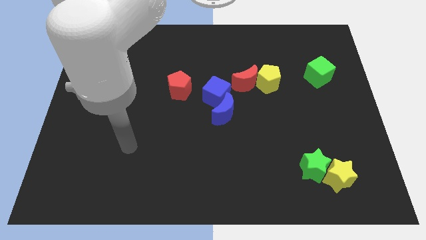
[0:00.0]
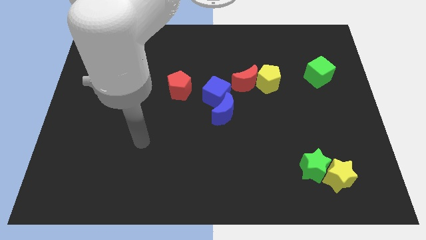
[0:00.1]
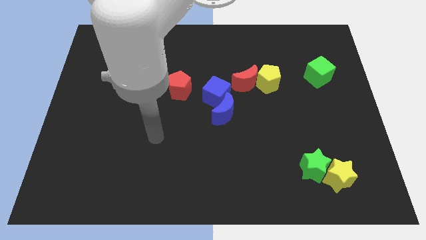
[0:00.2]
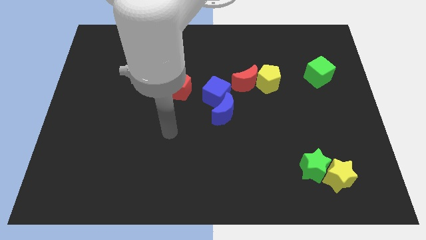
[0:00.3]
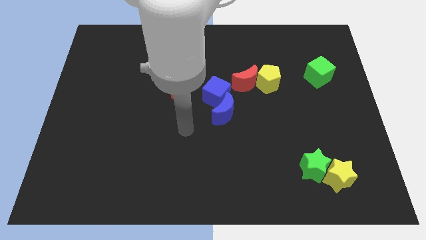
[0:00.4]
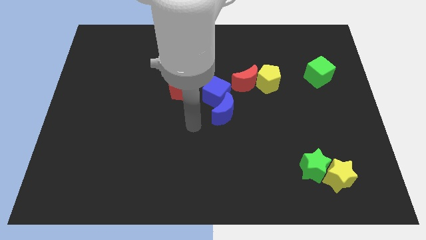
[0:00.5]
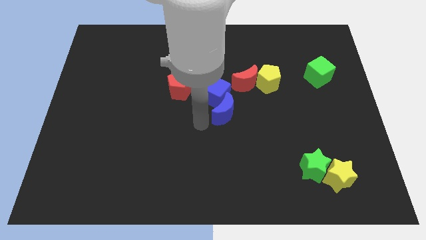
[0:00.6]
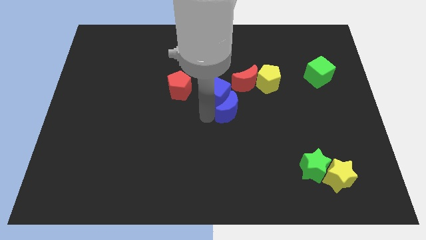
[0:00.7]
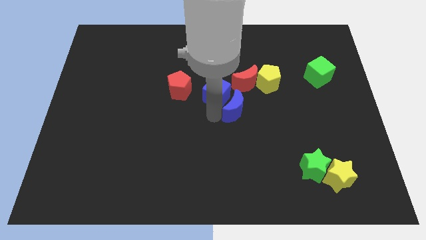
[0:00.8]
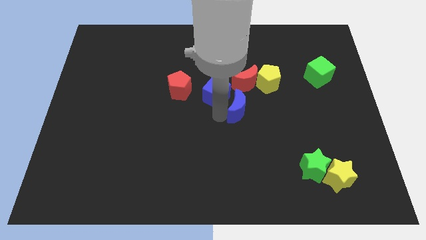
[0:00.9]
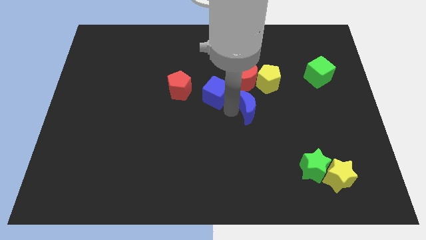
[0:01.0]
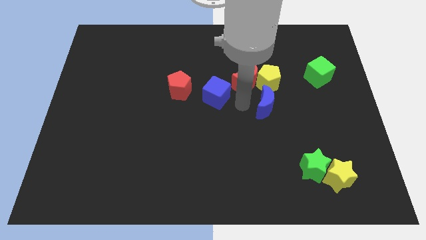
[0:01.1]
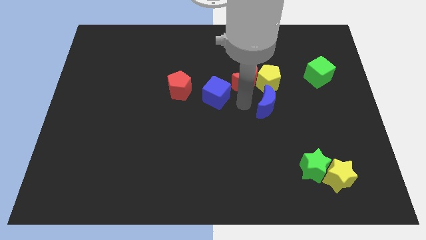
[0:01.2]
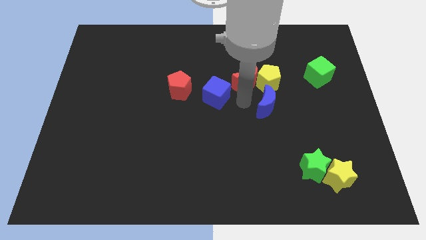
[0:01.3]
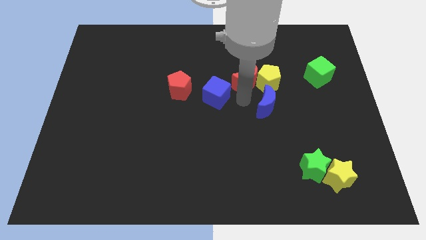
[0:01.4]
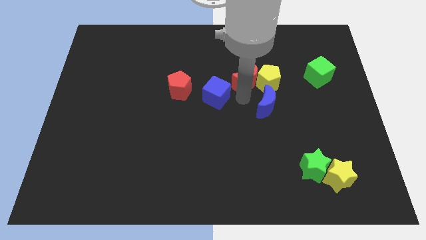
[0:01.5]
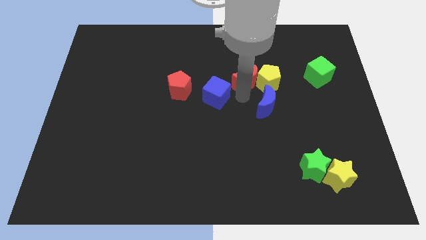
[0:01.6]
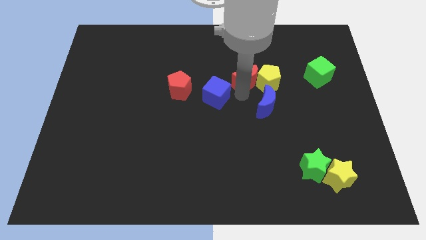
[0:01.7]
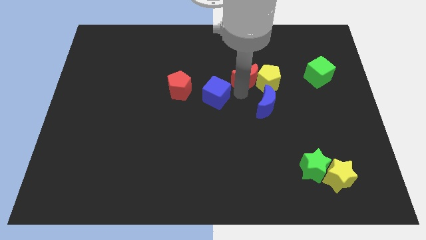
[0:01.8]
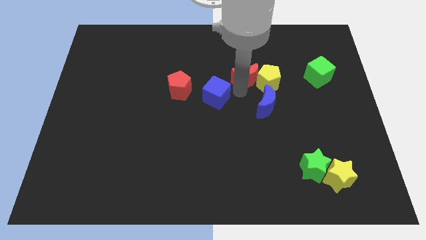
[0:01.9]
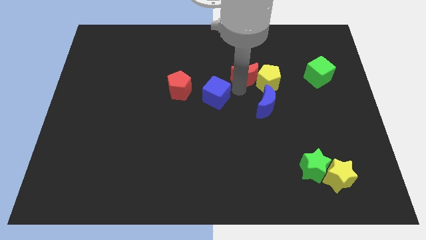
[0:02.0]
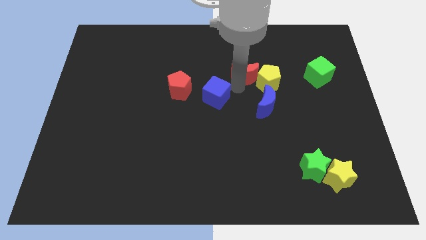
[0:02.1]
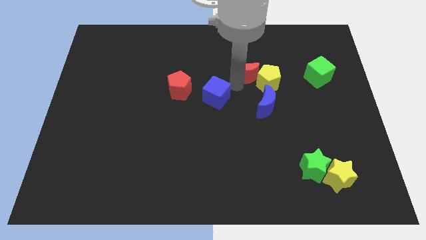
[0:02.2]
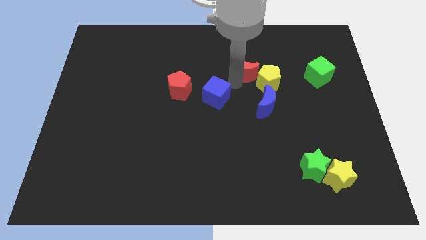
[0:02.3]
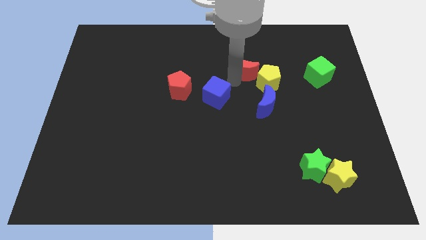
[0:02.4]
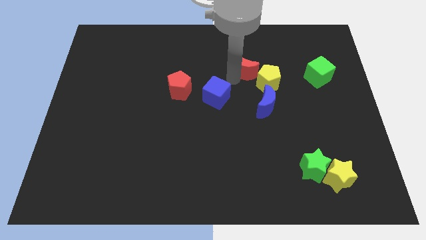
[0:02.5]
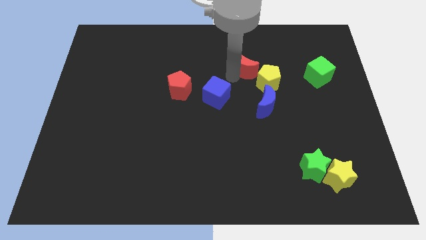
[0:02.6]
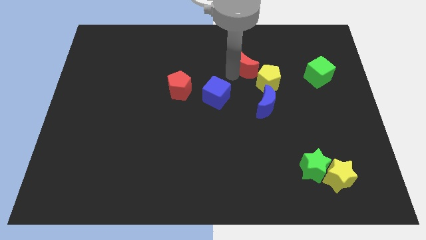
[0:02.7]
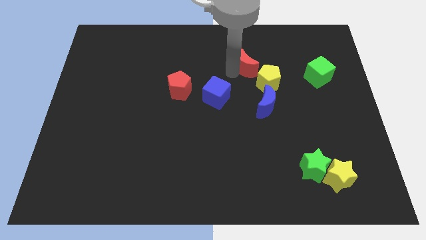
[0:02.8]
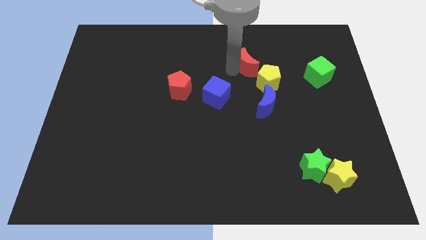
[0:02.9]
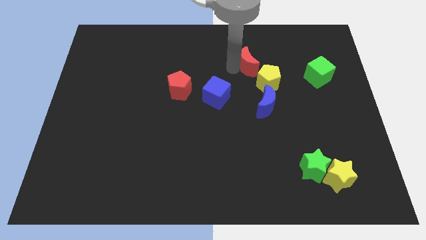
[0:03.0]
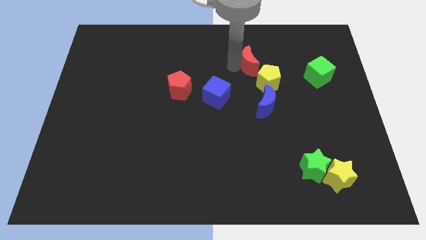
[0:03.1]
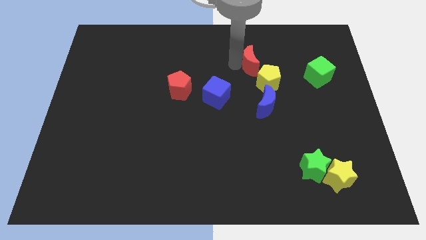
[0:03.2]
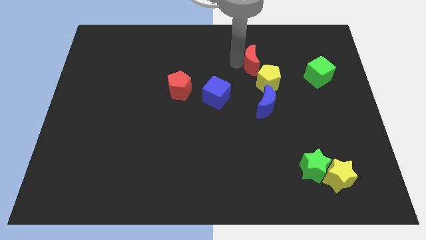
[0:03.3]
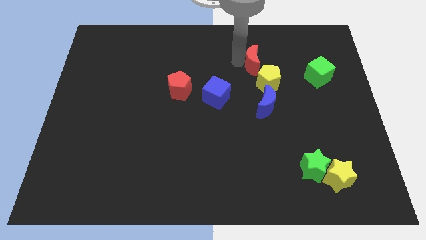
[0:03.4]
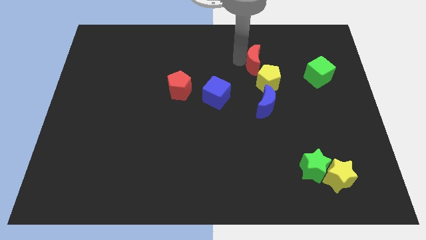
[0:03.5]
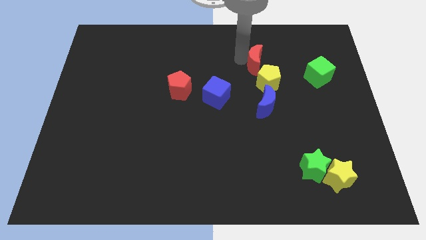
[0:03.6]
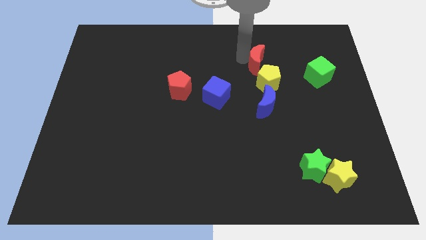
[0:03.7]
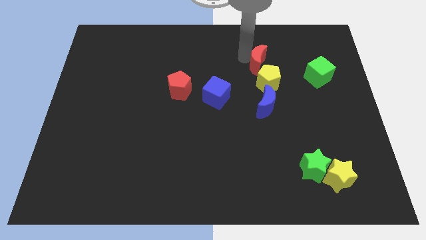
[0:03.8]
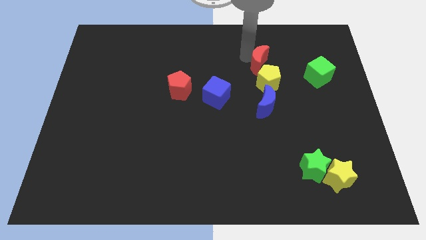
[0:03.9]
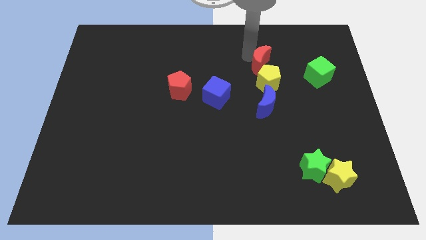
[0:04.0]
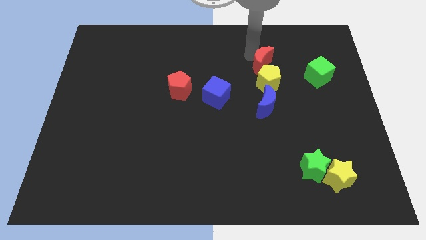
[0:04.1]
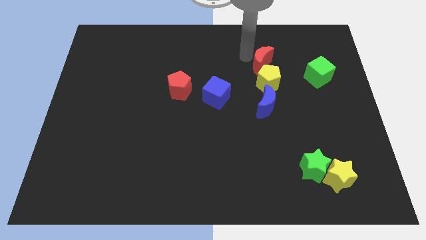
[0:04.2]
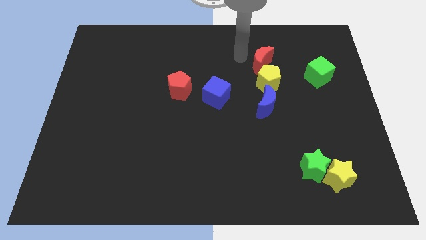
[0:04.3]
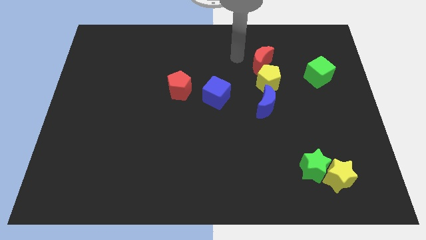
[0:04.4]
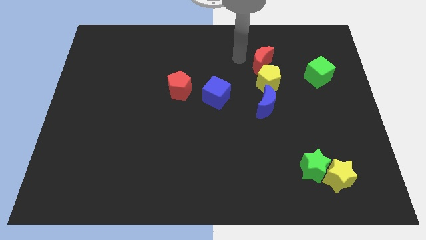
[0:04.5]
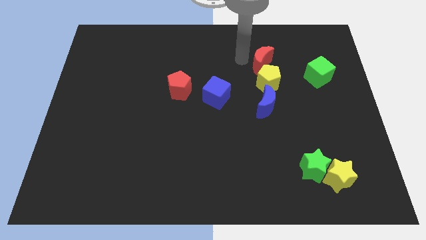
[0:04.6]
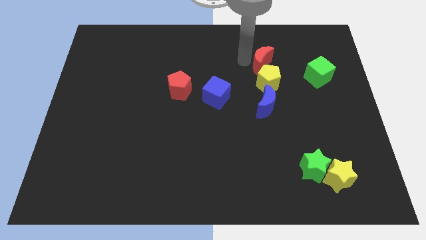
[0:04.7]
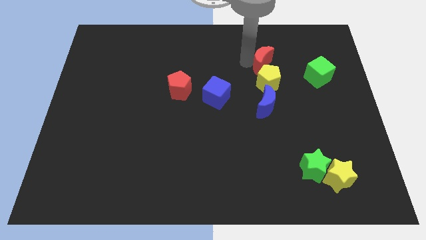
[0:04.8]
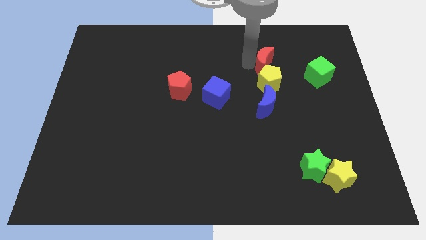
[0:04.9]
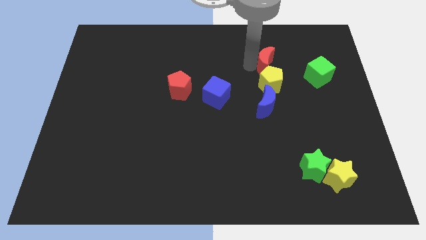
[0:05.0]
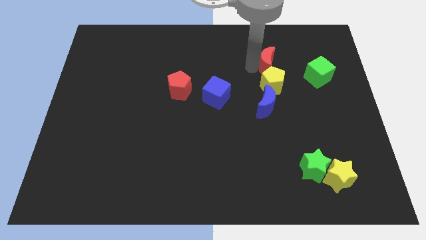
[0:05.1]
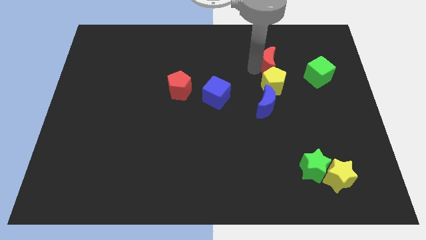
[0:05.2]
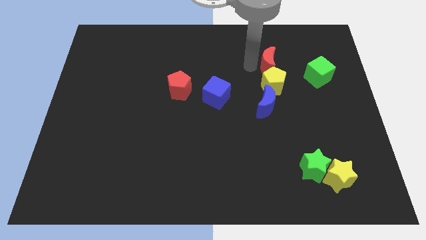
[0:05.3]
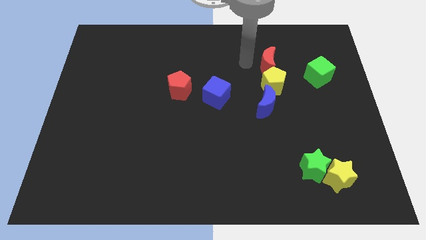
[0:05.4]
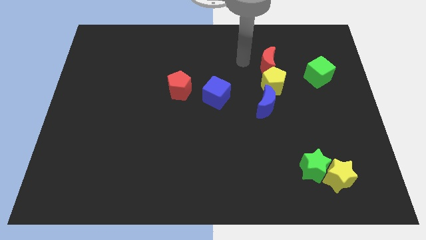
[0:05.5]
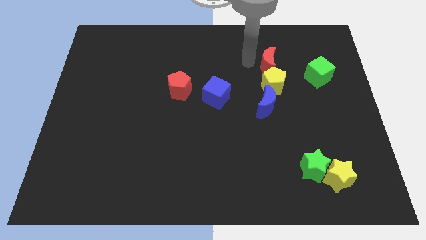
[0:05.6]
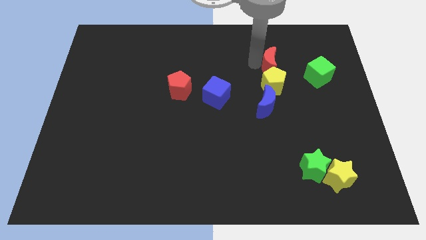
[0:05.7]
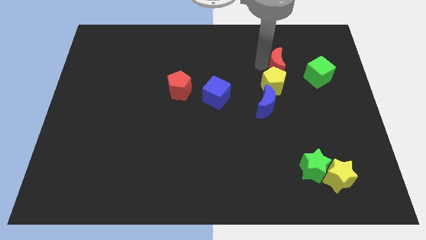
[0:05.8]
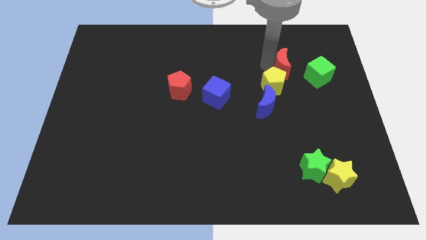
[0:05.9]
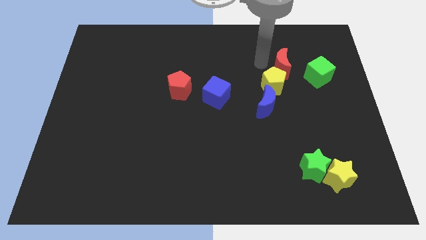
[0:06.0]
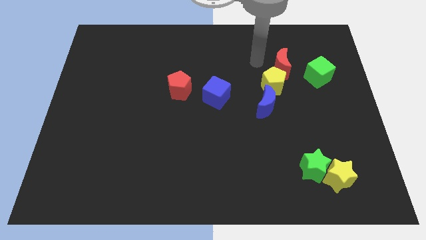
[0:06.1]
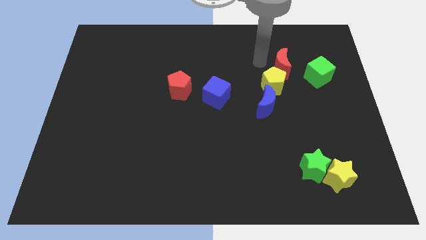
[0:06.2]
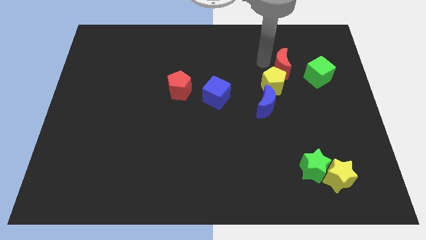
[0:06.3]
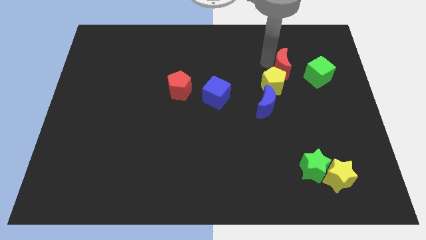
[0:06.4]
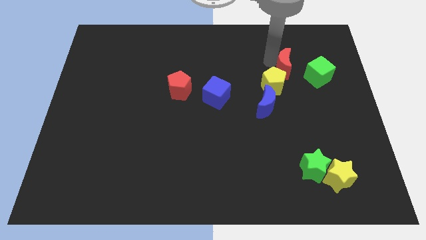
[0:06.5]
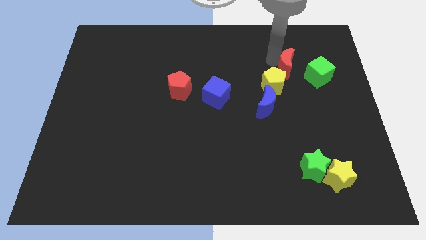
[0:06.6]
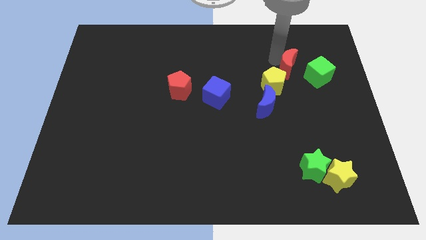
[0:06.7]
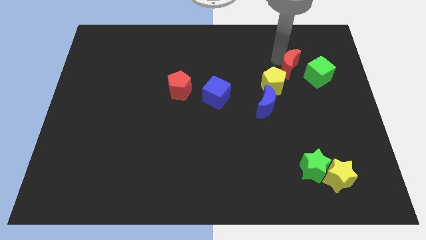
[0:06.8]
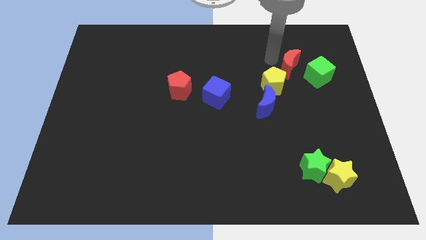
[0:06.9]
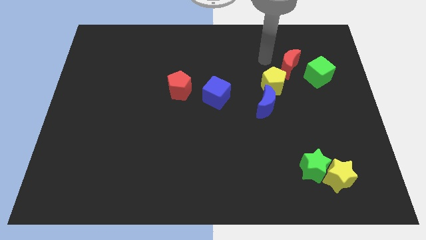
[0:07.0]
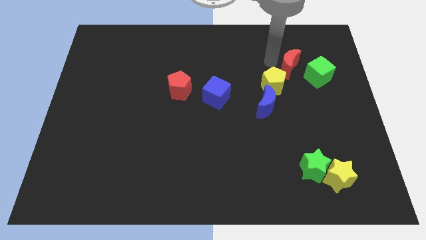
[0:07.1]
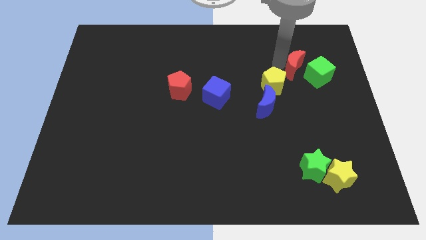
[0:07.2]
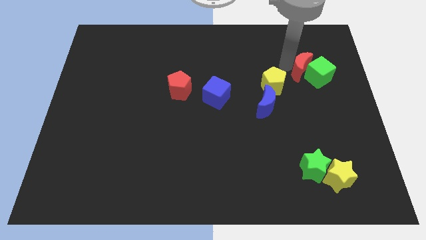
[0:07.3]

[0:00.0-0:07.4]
put the red moon next to the green cube
